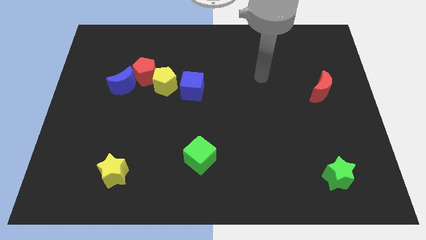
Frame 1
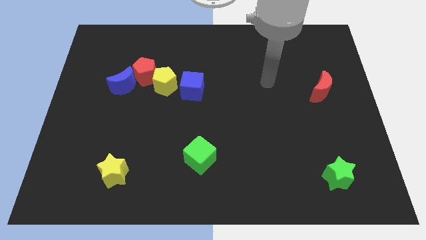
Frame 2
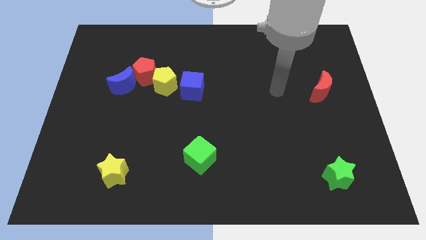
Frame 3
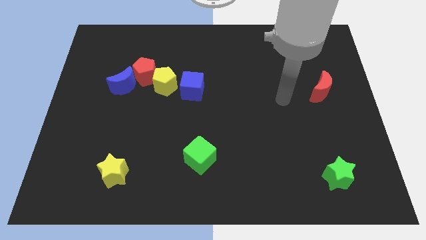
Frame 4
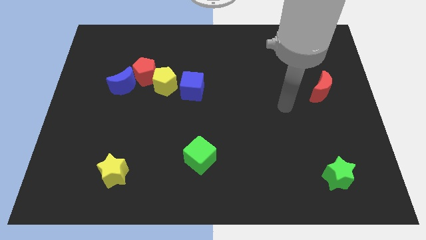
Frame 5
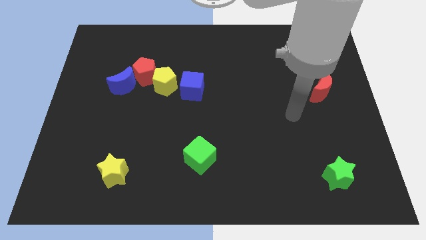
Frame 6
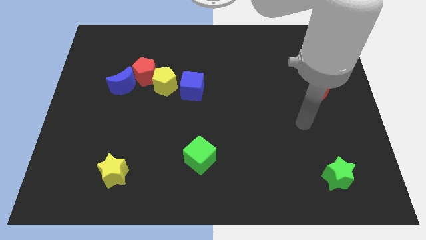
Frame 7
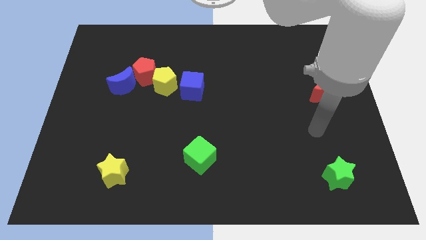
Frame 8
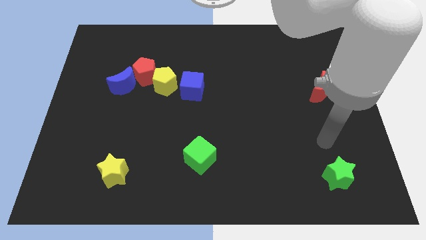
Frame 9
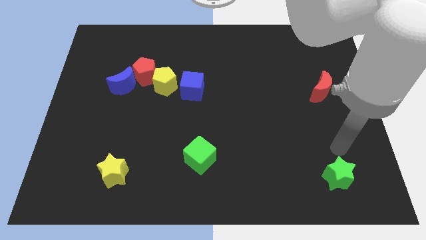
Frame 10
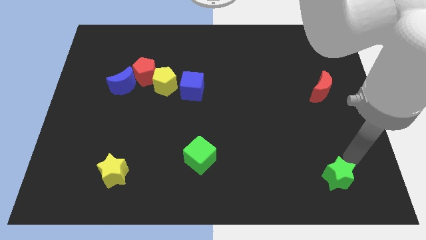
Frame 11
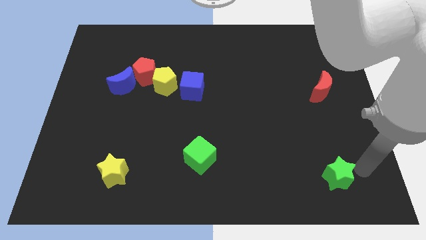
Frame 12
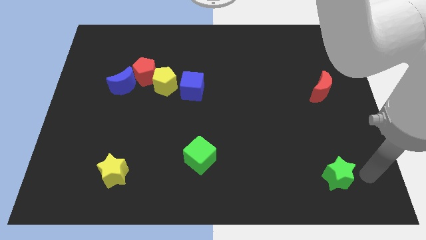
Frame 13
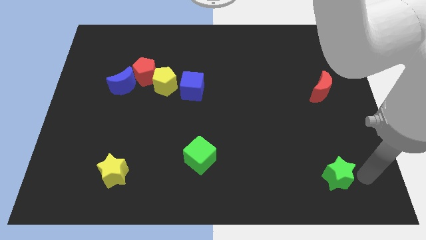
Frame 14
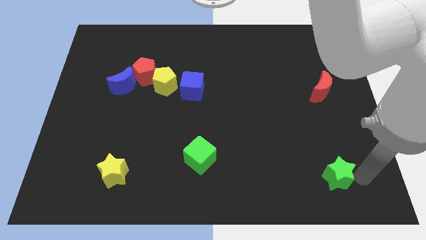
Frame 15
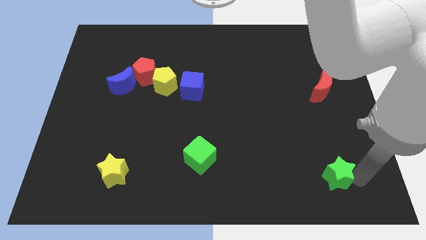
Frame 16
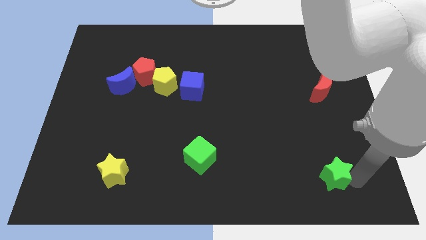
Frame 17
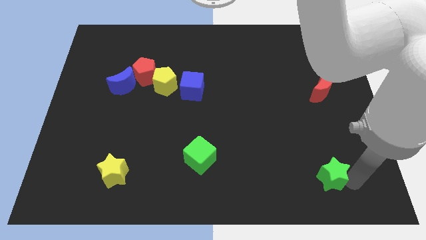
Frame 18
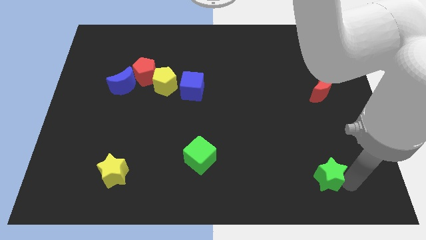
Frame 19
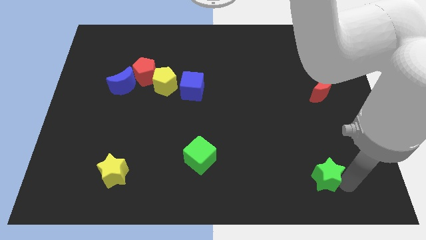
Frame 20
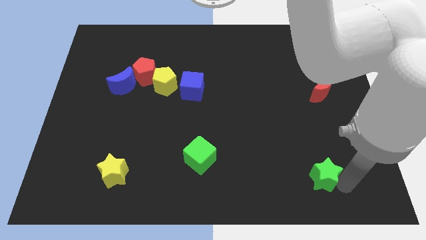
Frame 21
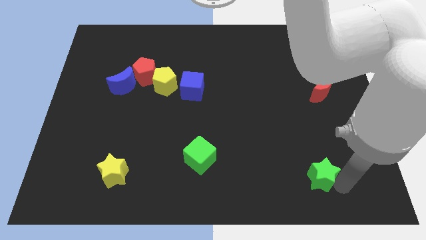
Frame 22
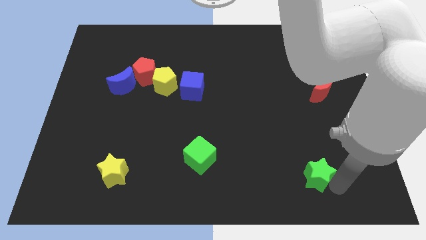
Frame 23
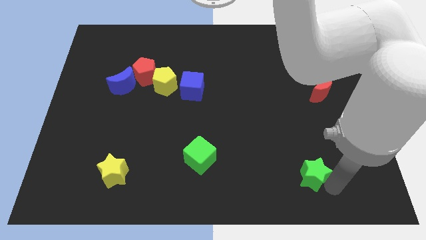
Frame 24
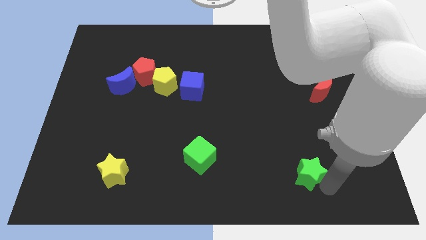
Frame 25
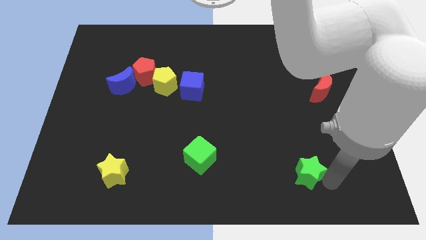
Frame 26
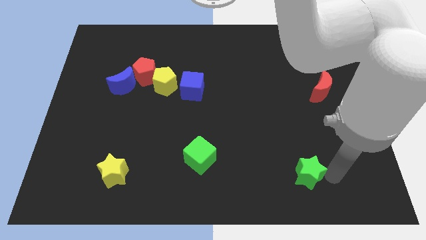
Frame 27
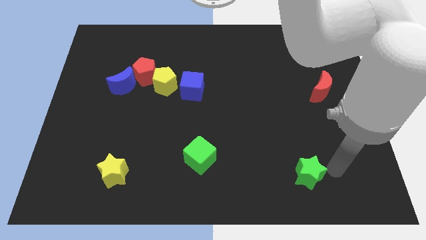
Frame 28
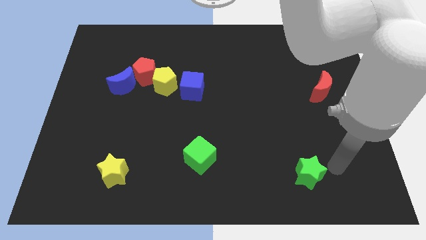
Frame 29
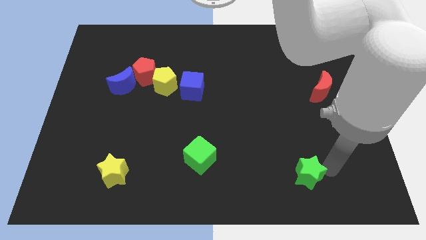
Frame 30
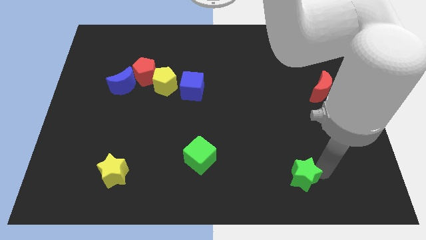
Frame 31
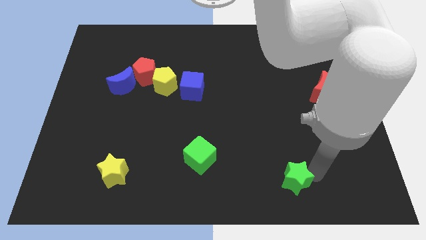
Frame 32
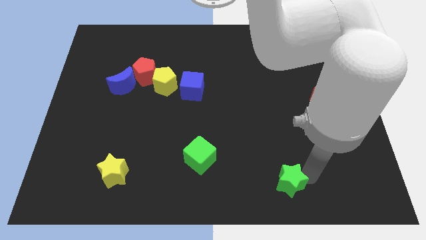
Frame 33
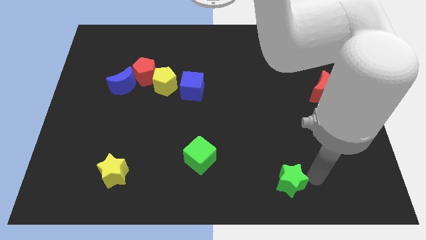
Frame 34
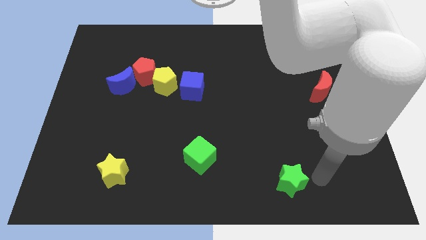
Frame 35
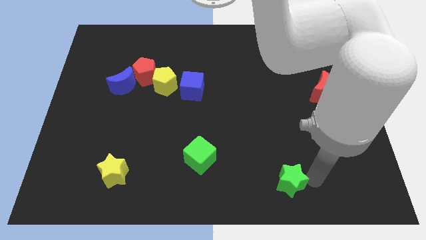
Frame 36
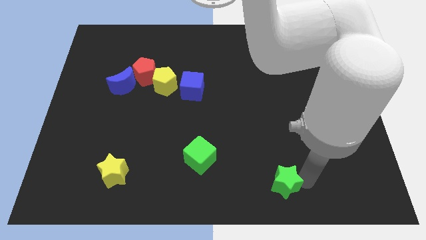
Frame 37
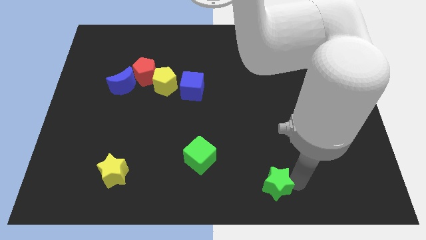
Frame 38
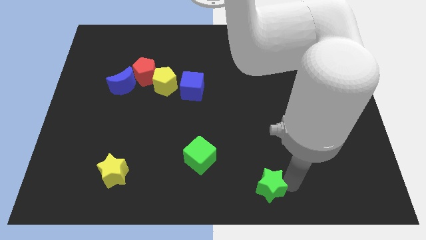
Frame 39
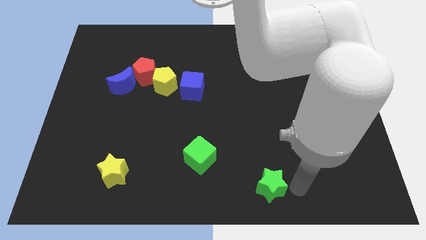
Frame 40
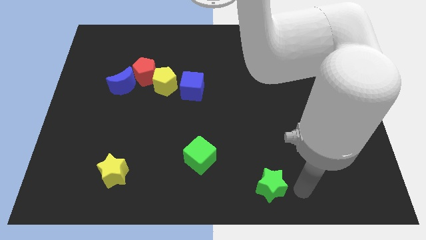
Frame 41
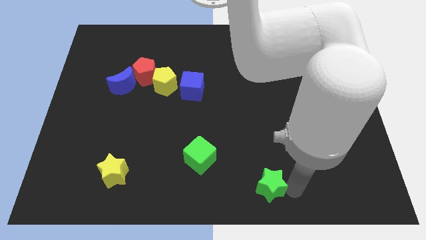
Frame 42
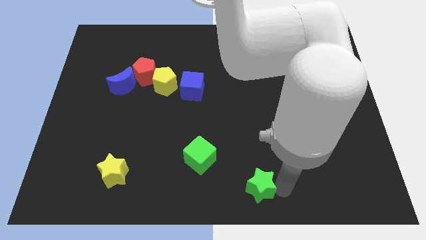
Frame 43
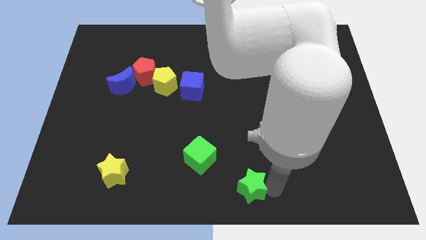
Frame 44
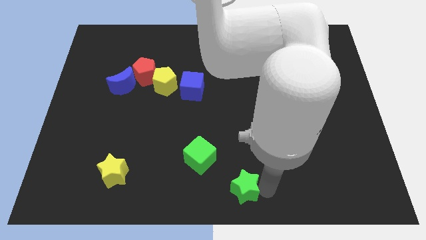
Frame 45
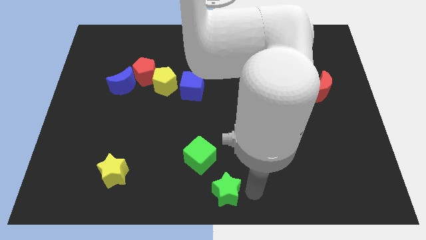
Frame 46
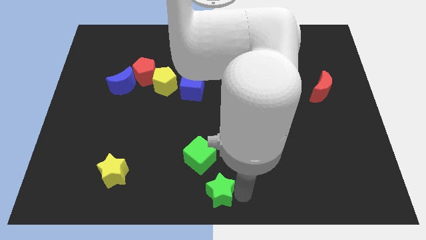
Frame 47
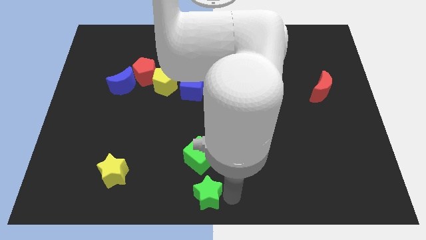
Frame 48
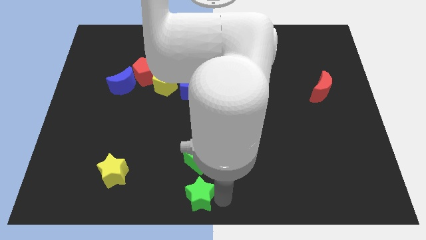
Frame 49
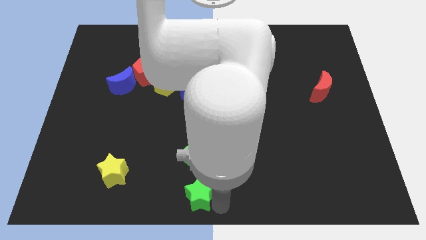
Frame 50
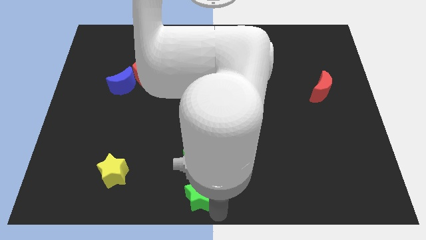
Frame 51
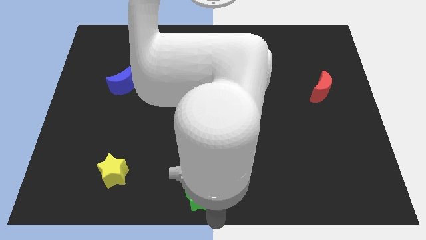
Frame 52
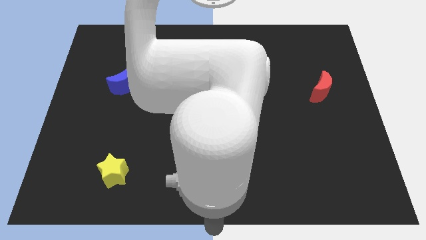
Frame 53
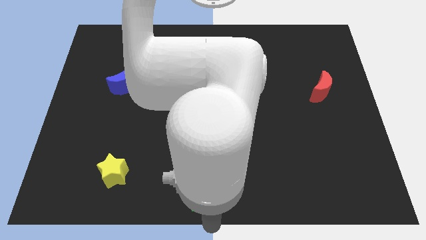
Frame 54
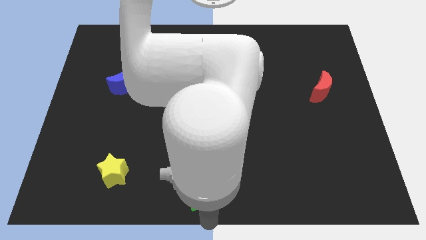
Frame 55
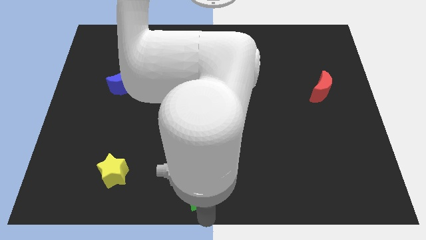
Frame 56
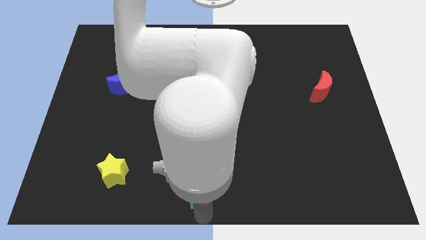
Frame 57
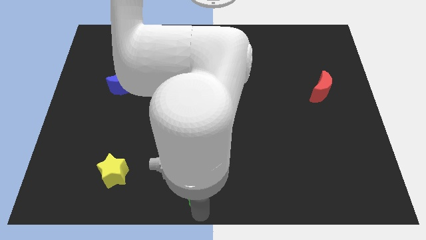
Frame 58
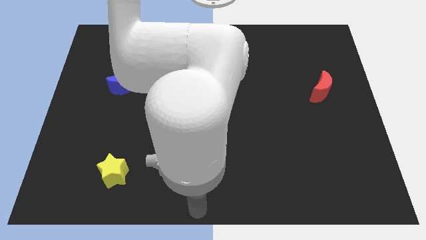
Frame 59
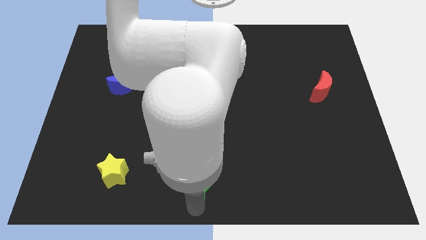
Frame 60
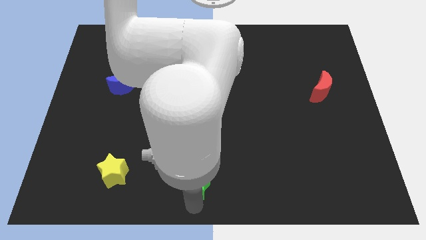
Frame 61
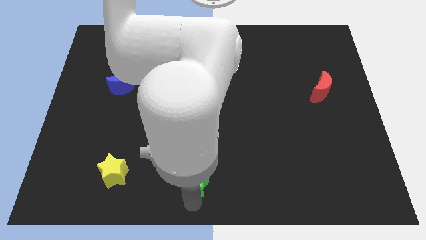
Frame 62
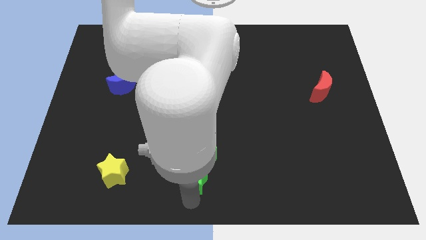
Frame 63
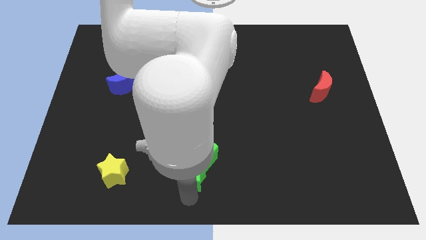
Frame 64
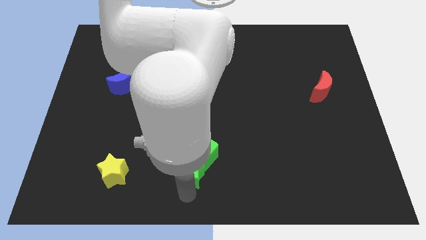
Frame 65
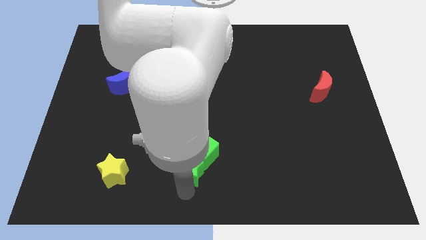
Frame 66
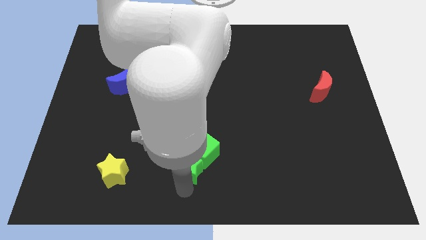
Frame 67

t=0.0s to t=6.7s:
push the green star to the left of the green cube
